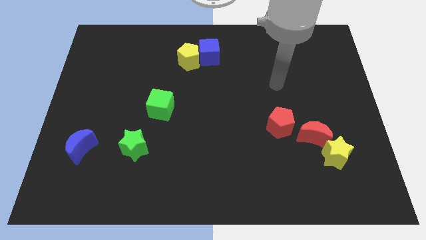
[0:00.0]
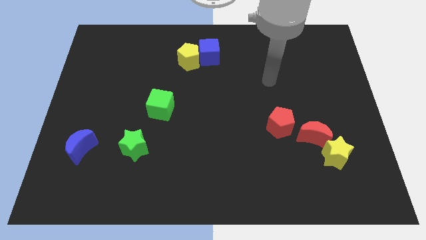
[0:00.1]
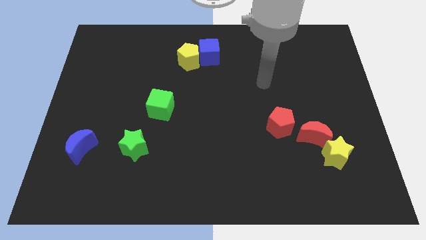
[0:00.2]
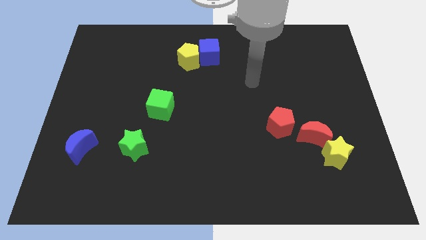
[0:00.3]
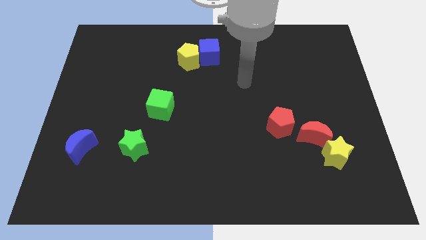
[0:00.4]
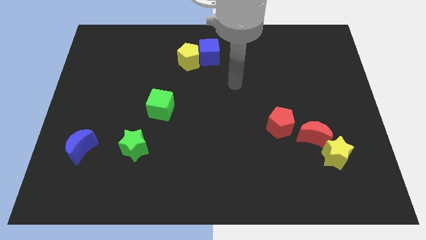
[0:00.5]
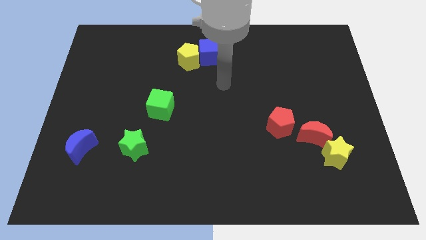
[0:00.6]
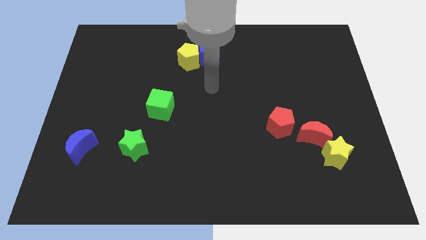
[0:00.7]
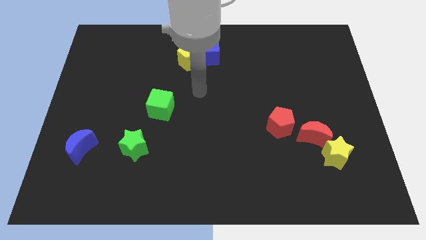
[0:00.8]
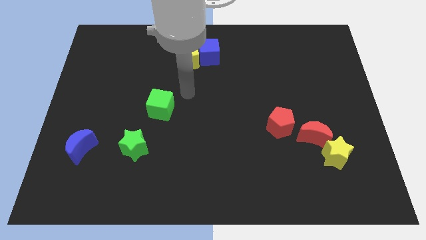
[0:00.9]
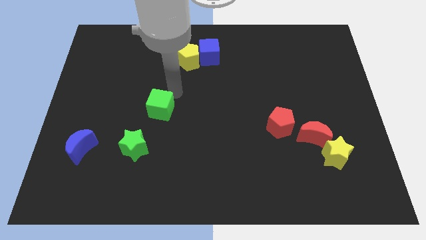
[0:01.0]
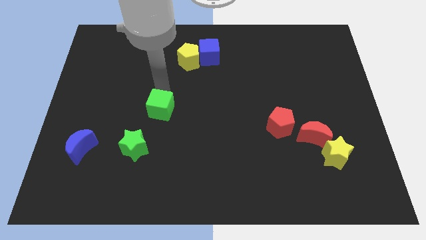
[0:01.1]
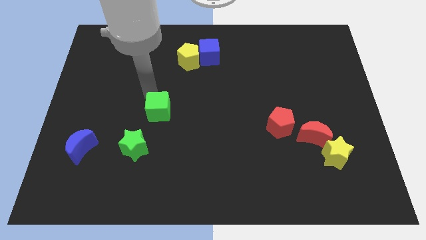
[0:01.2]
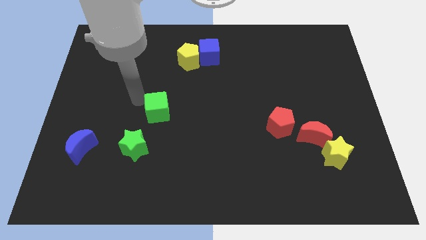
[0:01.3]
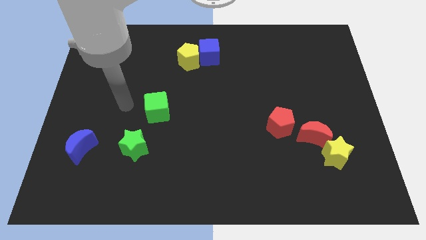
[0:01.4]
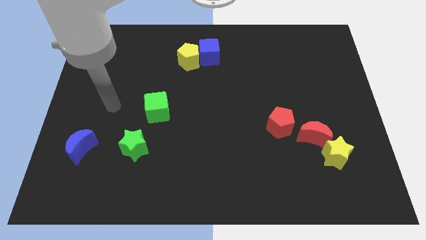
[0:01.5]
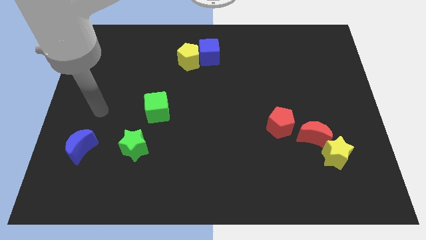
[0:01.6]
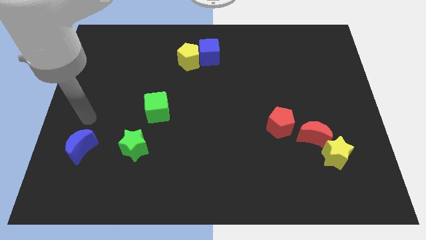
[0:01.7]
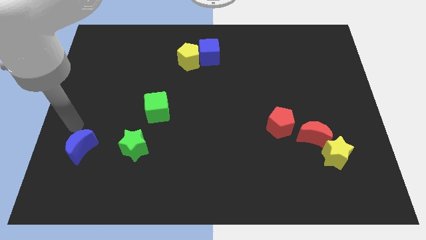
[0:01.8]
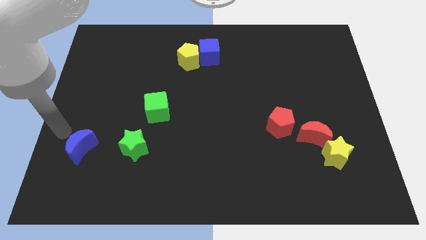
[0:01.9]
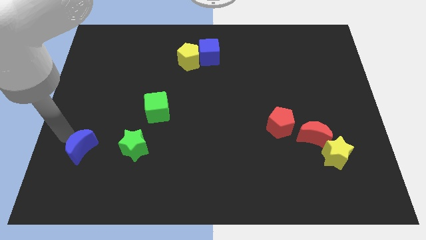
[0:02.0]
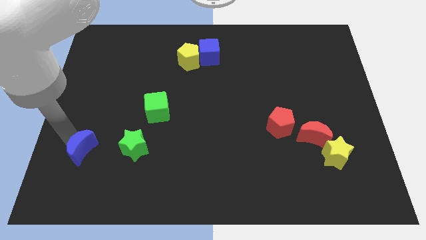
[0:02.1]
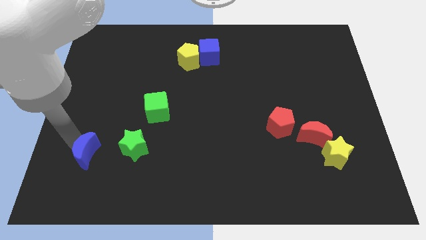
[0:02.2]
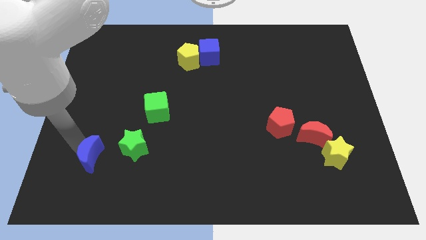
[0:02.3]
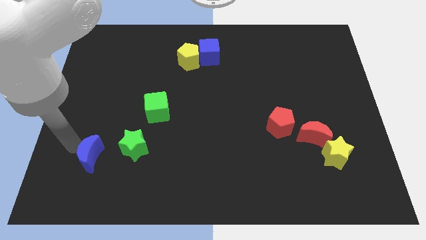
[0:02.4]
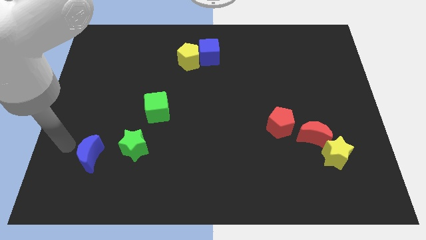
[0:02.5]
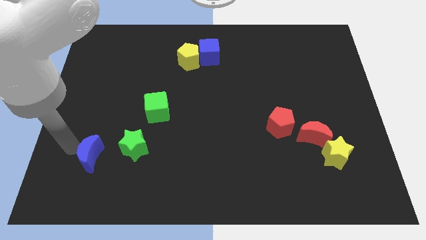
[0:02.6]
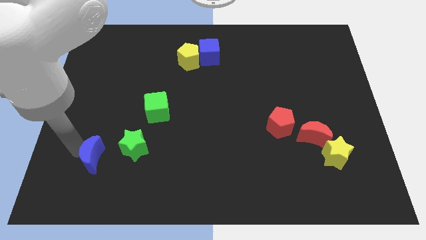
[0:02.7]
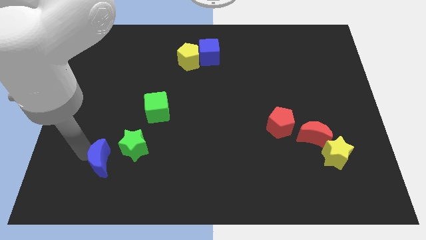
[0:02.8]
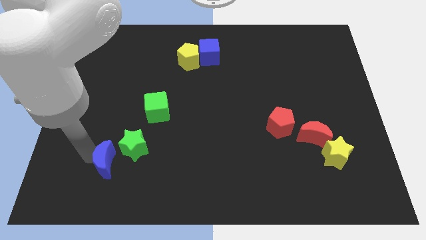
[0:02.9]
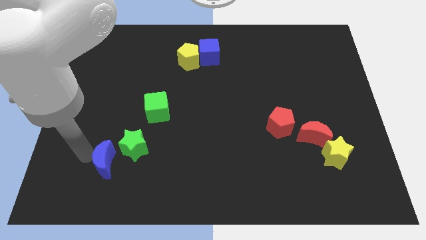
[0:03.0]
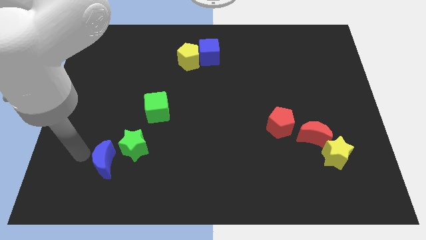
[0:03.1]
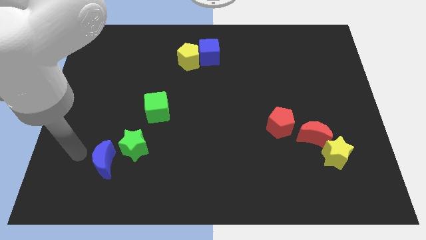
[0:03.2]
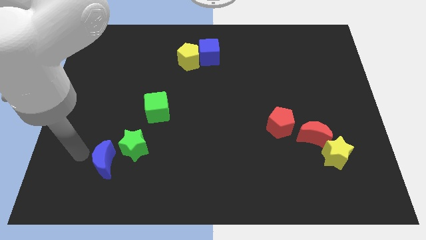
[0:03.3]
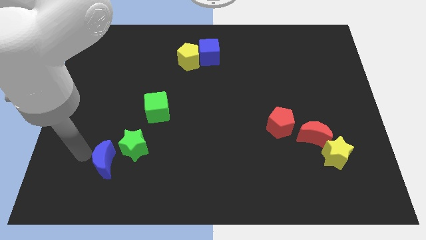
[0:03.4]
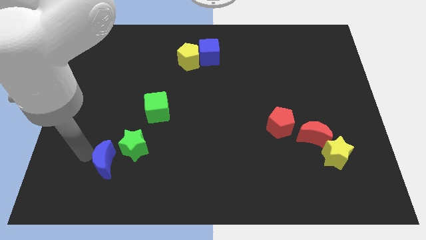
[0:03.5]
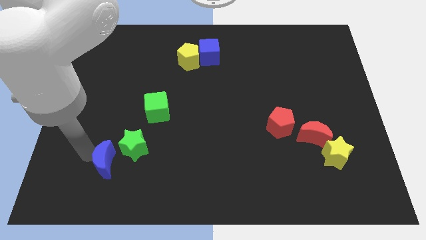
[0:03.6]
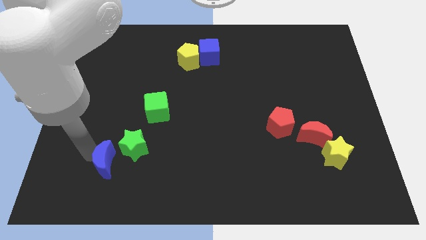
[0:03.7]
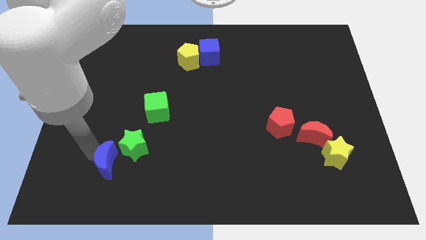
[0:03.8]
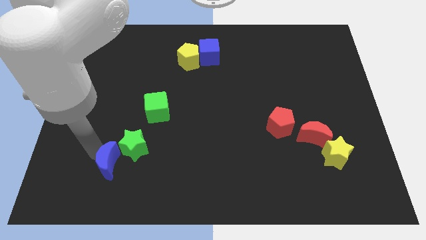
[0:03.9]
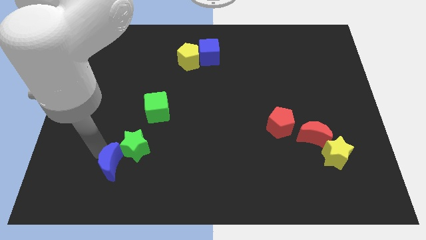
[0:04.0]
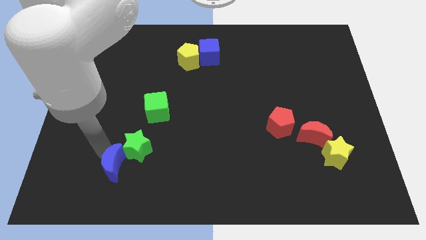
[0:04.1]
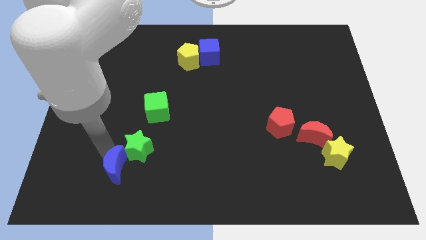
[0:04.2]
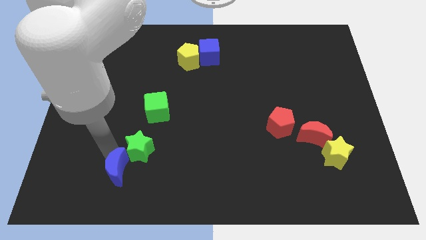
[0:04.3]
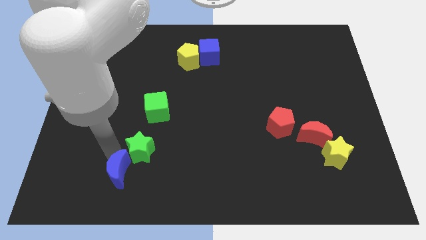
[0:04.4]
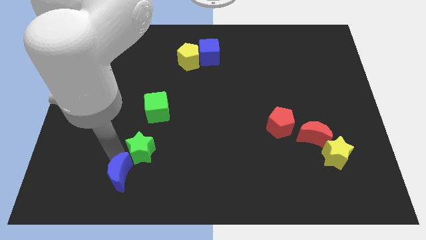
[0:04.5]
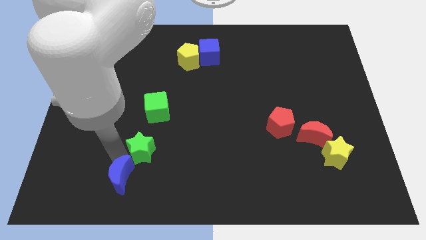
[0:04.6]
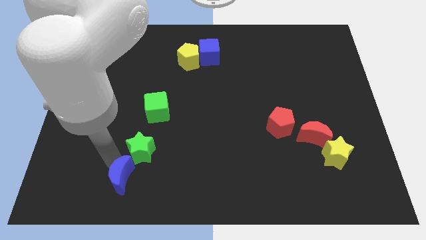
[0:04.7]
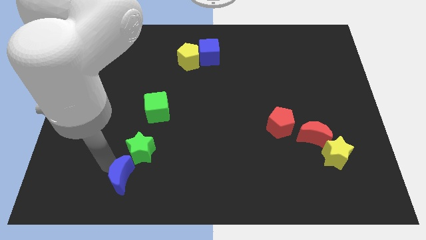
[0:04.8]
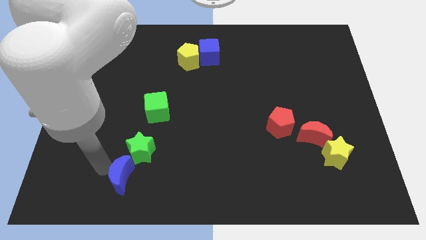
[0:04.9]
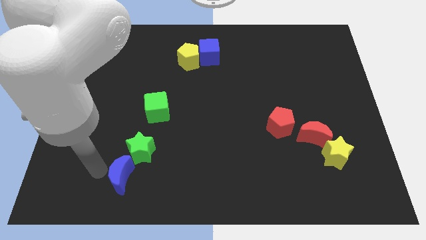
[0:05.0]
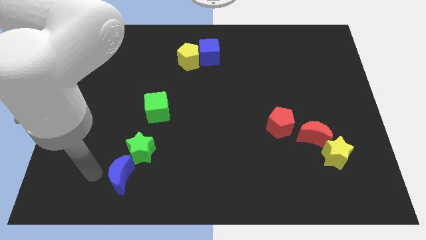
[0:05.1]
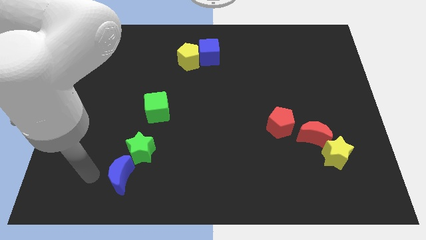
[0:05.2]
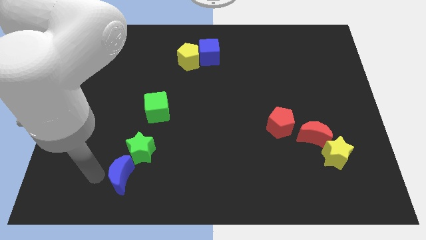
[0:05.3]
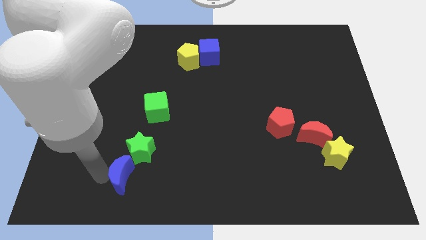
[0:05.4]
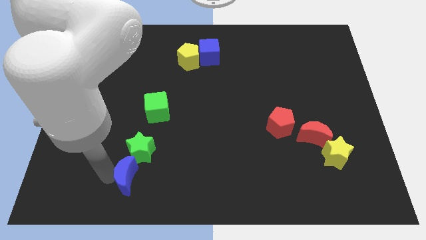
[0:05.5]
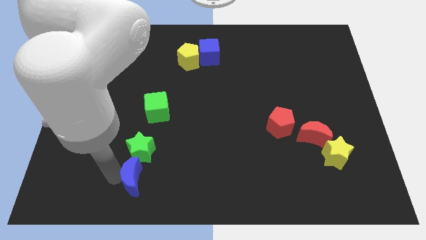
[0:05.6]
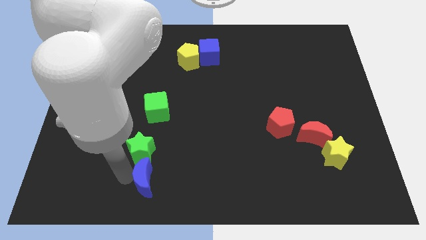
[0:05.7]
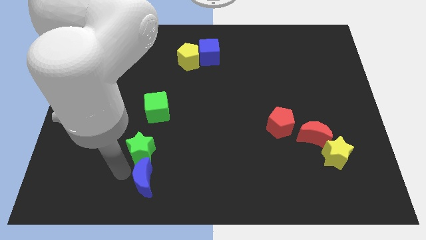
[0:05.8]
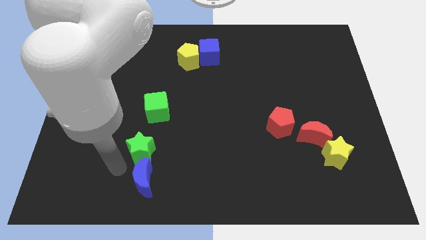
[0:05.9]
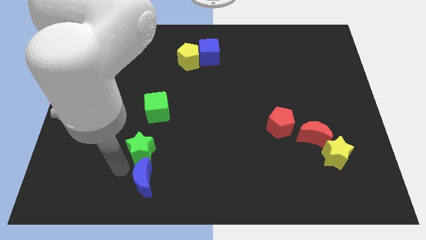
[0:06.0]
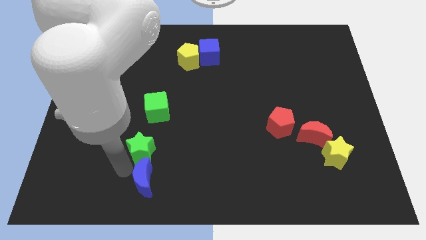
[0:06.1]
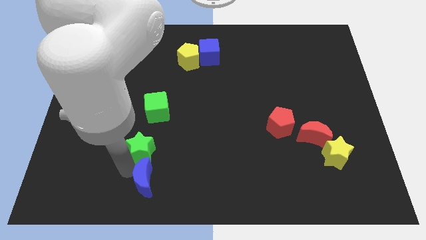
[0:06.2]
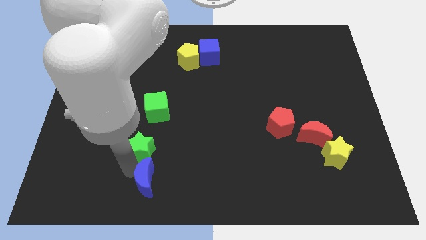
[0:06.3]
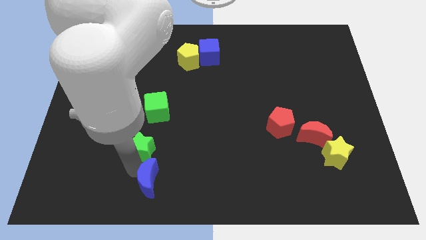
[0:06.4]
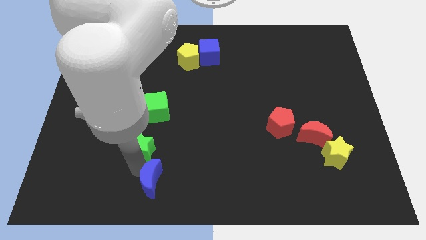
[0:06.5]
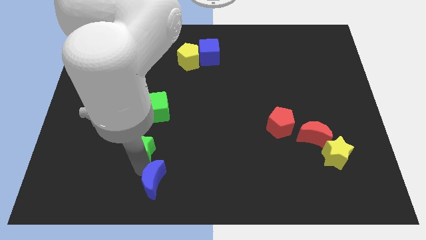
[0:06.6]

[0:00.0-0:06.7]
move the blue moon to the bottom side
